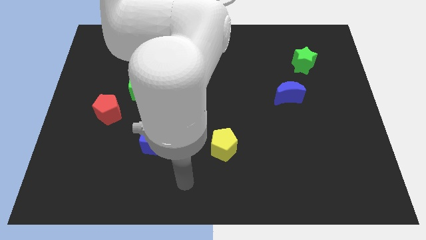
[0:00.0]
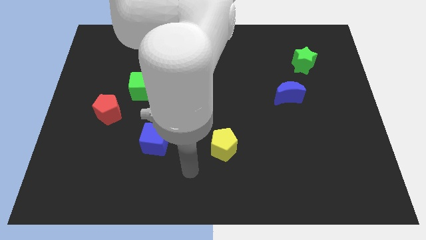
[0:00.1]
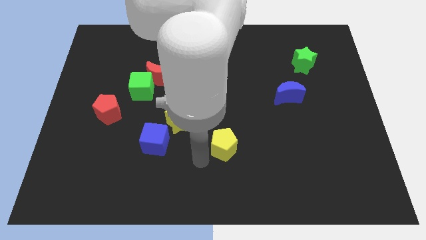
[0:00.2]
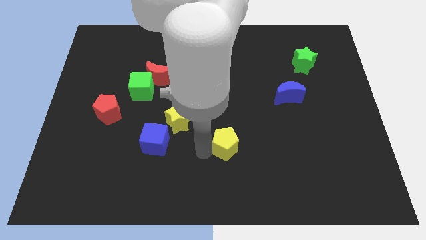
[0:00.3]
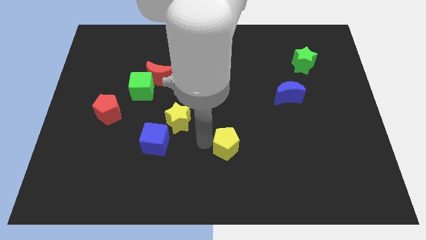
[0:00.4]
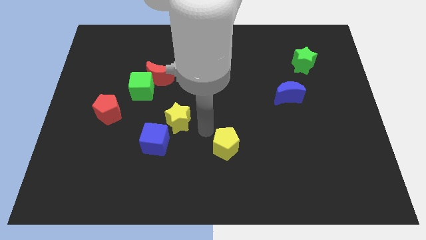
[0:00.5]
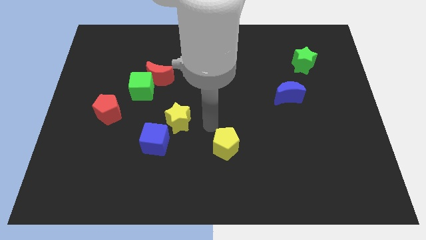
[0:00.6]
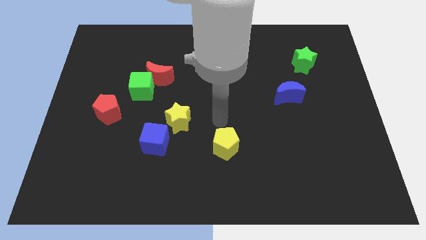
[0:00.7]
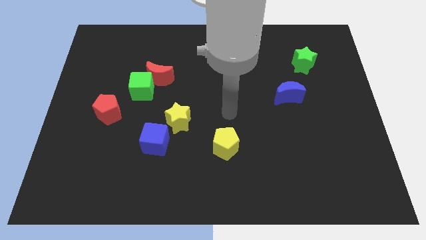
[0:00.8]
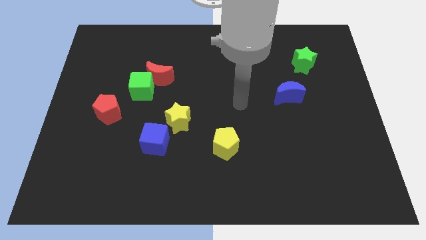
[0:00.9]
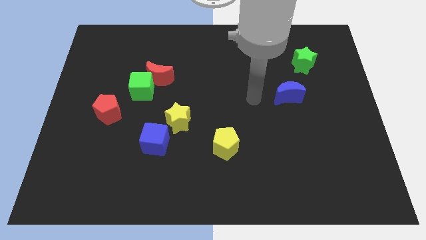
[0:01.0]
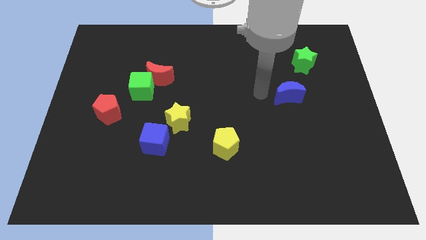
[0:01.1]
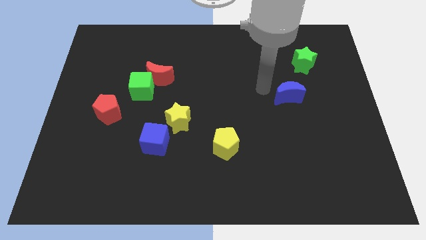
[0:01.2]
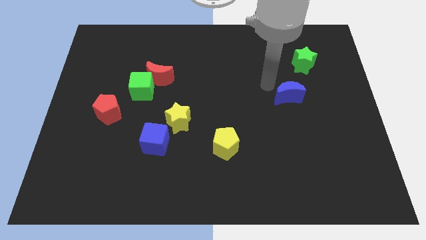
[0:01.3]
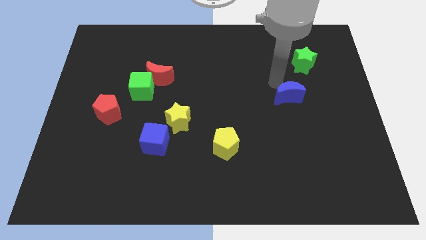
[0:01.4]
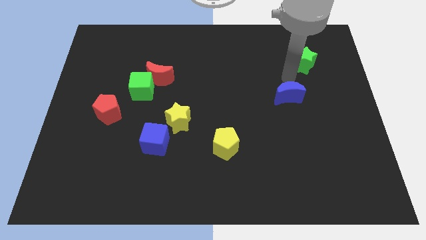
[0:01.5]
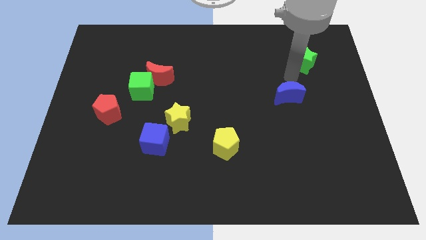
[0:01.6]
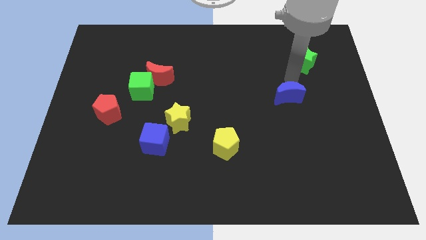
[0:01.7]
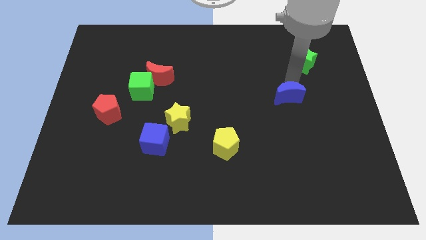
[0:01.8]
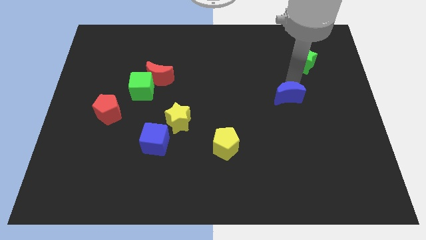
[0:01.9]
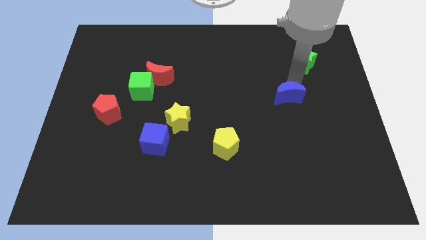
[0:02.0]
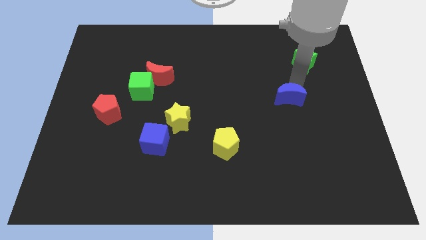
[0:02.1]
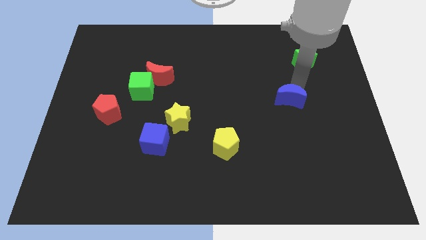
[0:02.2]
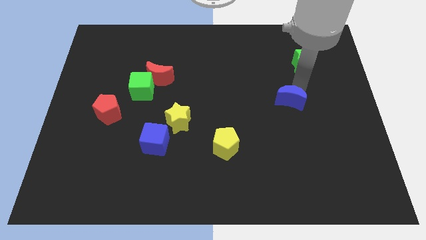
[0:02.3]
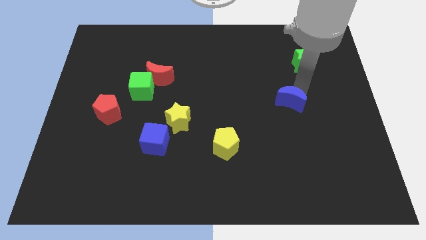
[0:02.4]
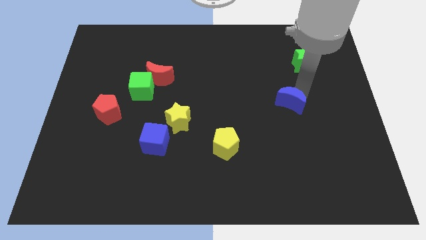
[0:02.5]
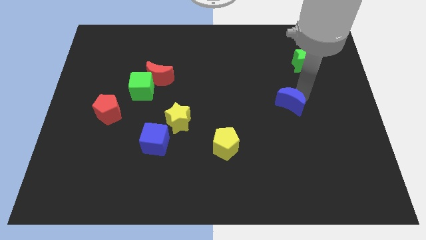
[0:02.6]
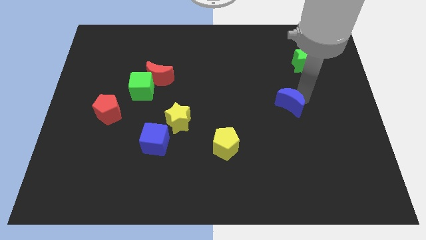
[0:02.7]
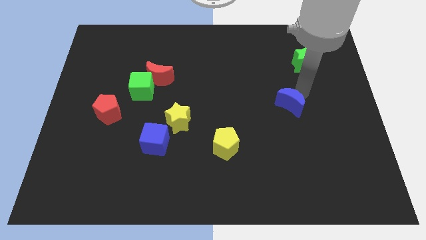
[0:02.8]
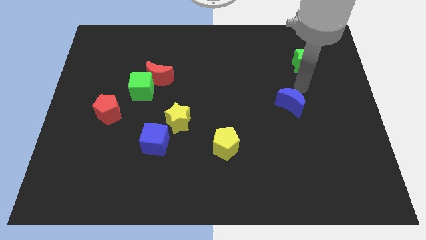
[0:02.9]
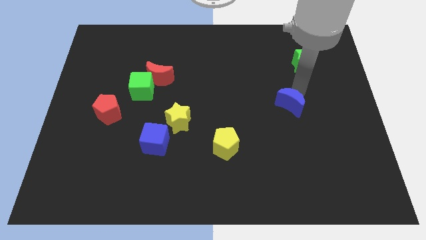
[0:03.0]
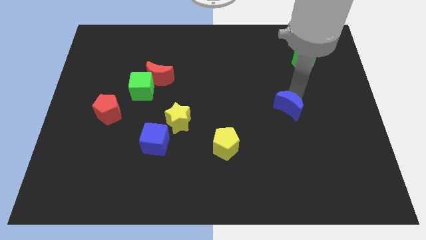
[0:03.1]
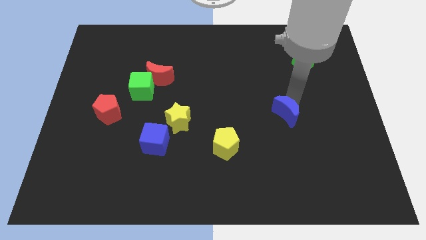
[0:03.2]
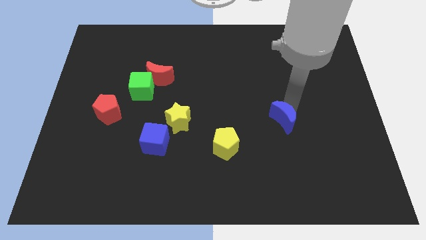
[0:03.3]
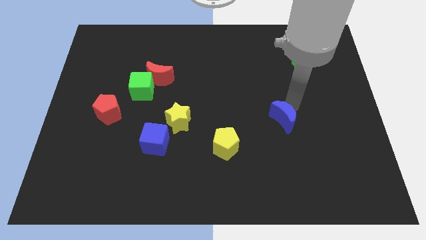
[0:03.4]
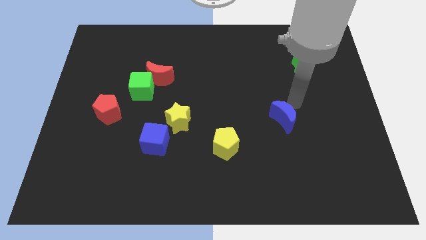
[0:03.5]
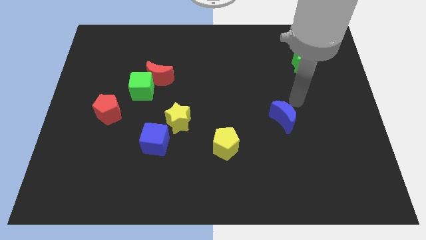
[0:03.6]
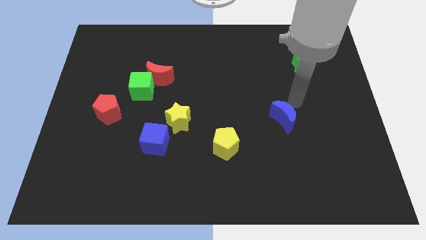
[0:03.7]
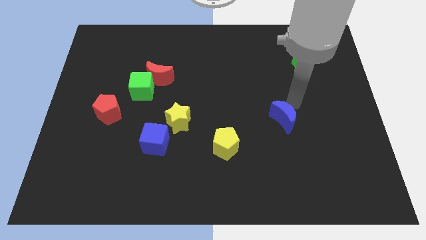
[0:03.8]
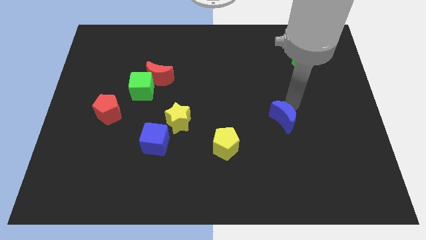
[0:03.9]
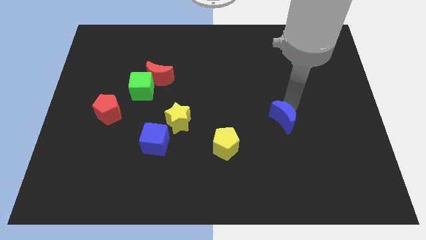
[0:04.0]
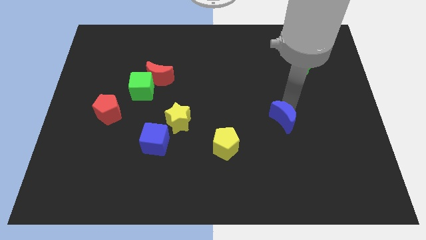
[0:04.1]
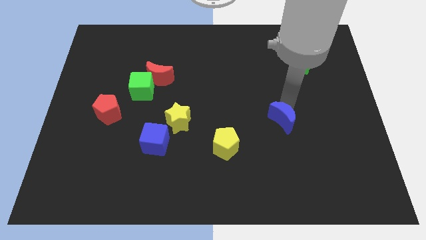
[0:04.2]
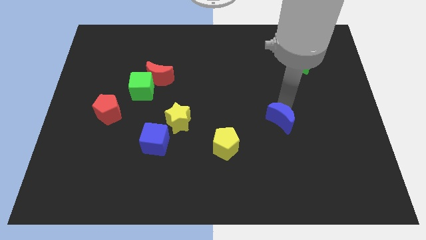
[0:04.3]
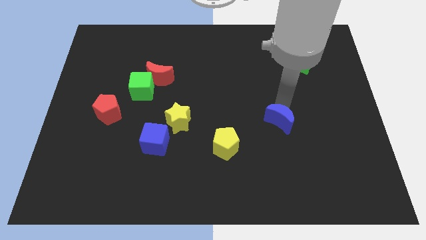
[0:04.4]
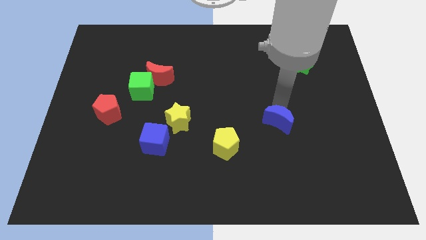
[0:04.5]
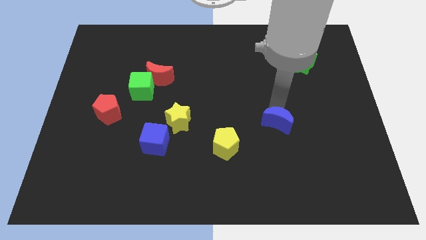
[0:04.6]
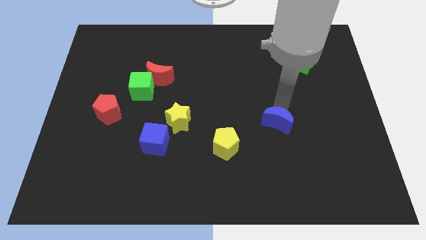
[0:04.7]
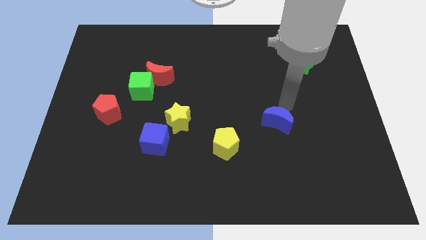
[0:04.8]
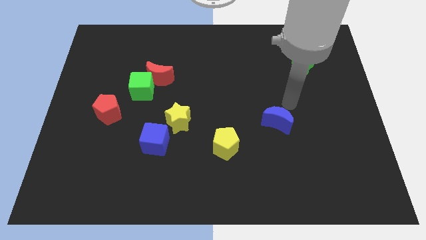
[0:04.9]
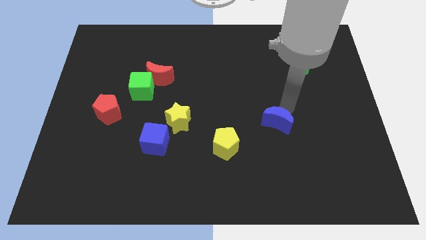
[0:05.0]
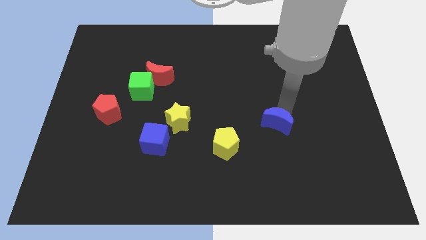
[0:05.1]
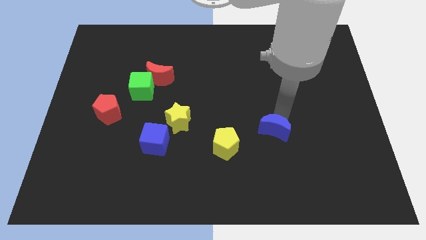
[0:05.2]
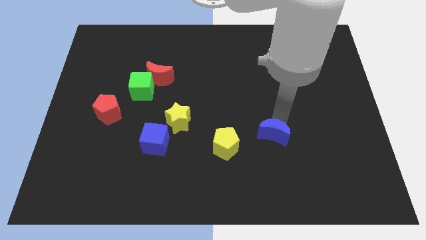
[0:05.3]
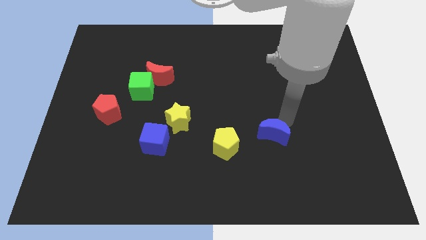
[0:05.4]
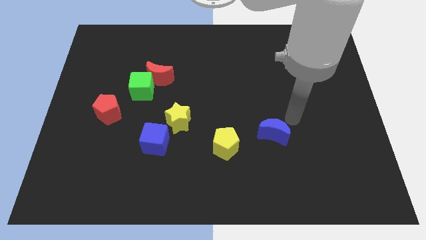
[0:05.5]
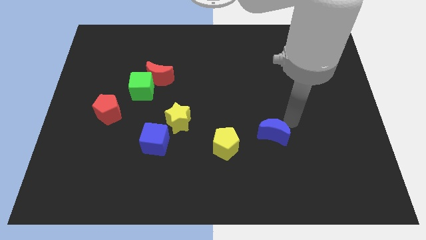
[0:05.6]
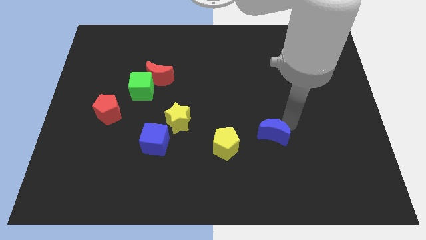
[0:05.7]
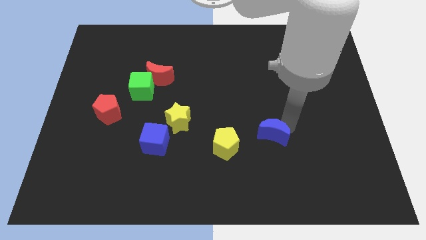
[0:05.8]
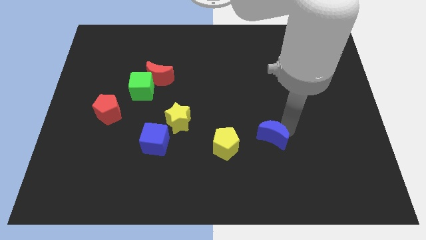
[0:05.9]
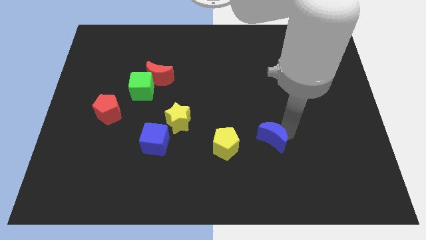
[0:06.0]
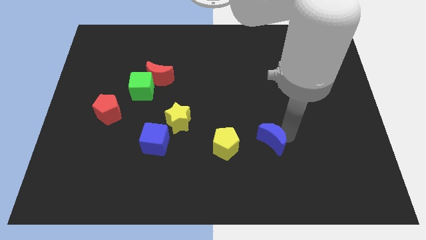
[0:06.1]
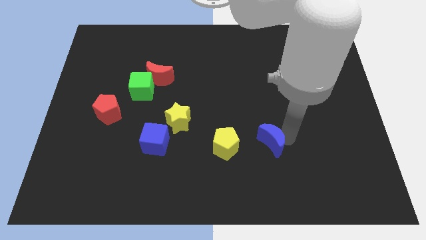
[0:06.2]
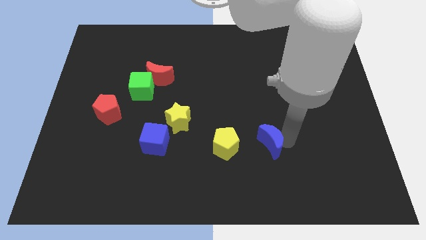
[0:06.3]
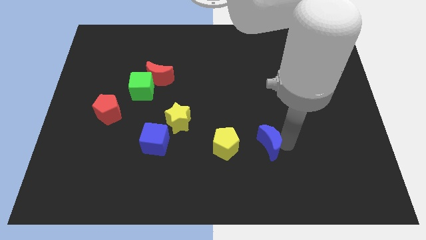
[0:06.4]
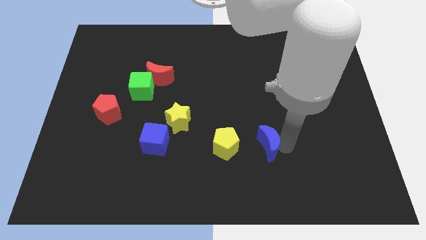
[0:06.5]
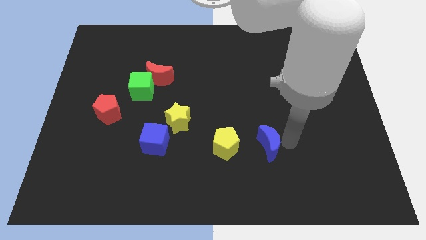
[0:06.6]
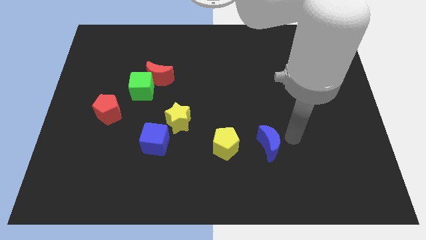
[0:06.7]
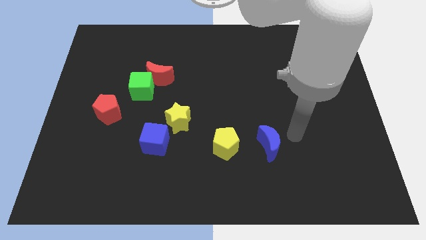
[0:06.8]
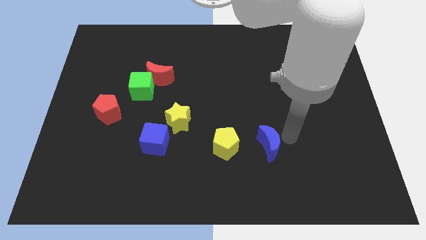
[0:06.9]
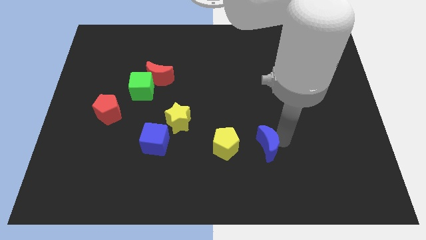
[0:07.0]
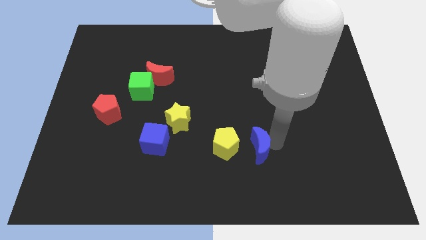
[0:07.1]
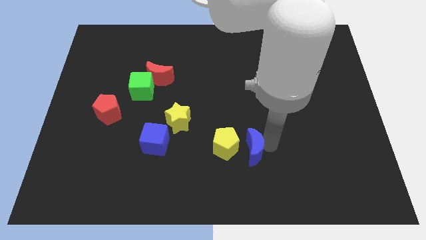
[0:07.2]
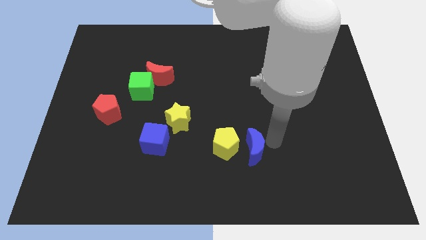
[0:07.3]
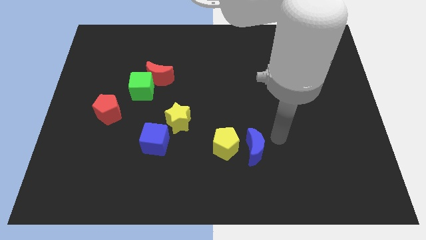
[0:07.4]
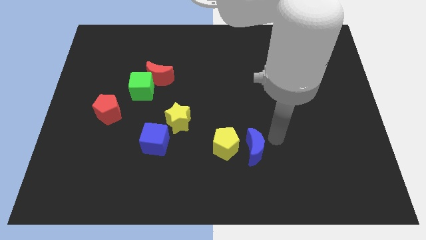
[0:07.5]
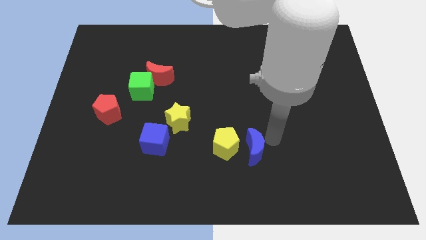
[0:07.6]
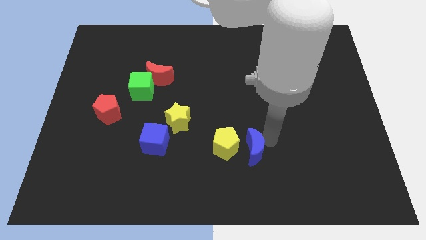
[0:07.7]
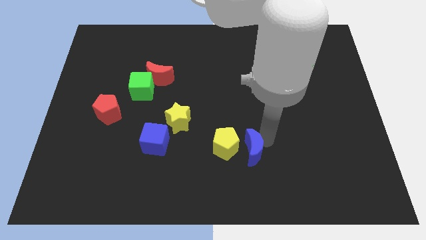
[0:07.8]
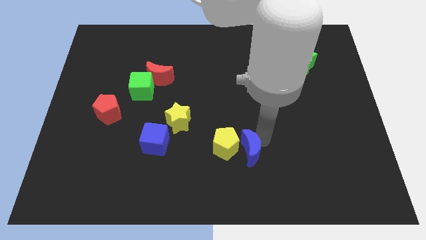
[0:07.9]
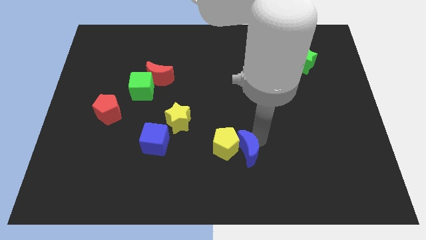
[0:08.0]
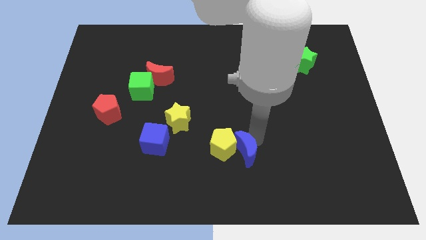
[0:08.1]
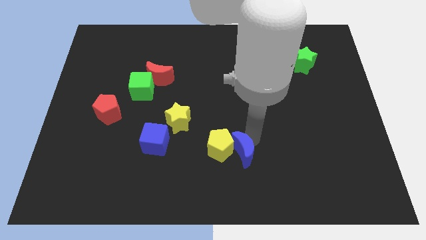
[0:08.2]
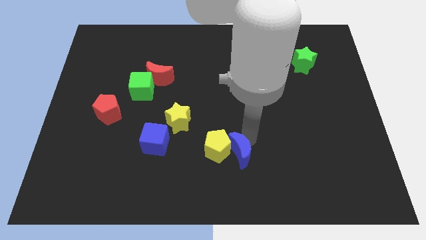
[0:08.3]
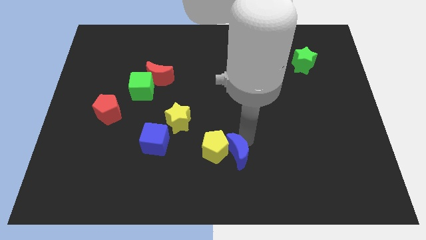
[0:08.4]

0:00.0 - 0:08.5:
push the blue moon down and left diagonally
